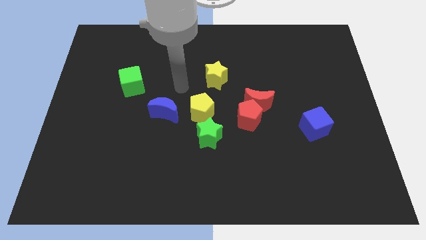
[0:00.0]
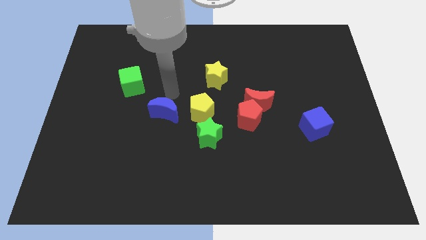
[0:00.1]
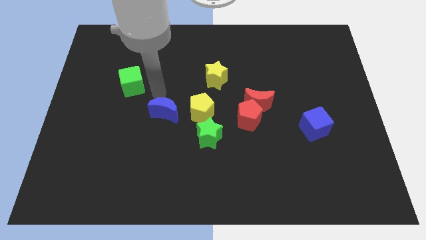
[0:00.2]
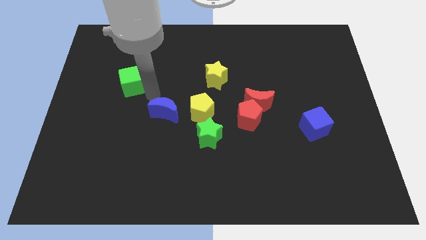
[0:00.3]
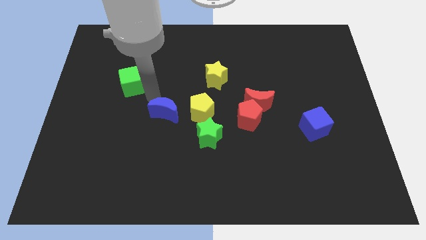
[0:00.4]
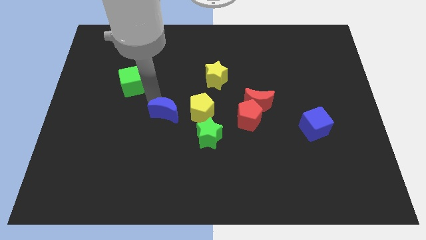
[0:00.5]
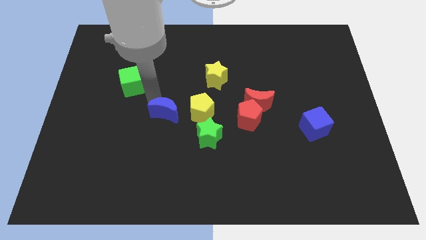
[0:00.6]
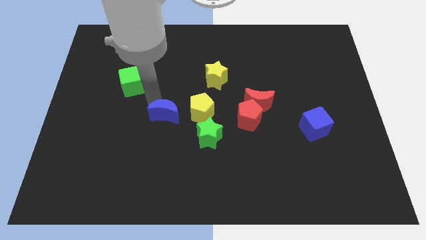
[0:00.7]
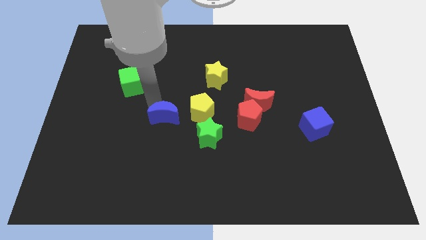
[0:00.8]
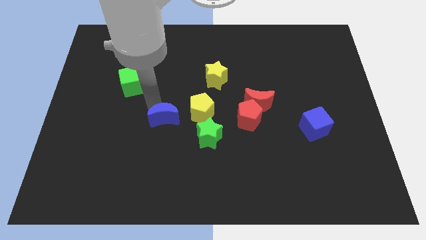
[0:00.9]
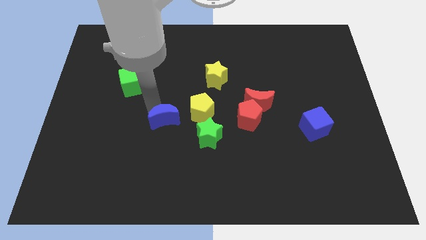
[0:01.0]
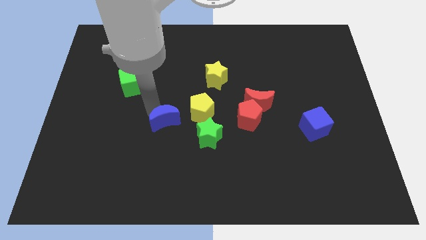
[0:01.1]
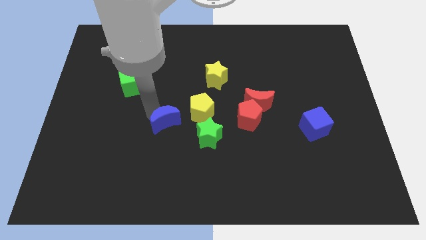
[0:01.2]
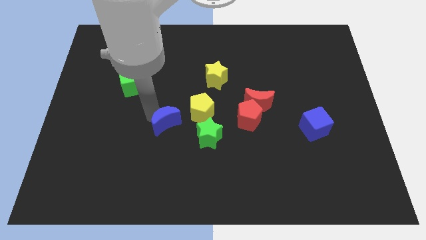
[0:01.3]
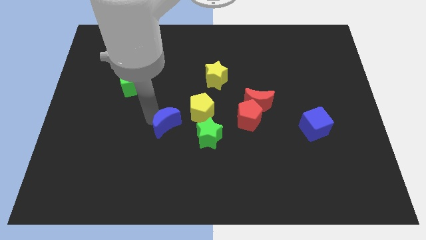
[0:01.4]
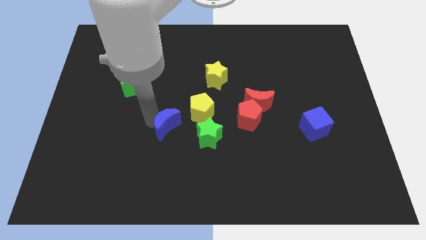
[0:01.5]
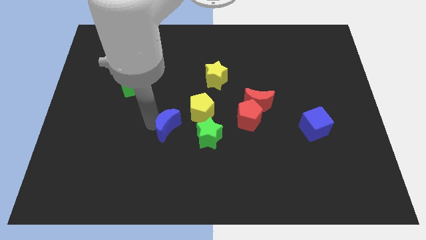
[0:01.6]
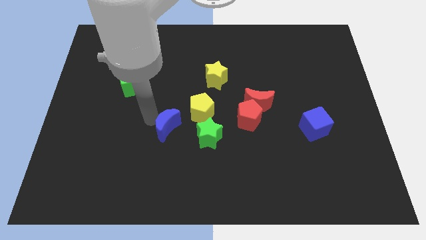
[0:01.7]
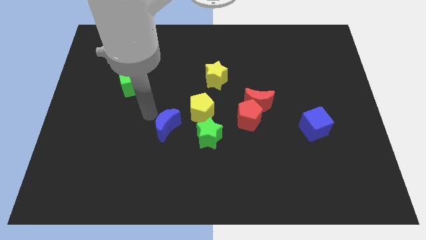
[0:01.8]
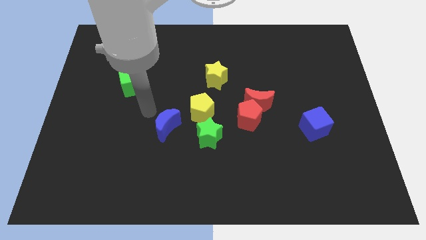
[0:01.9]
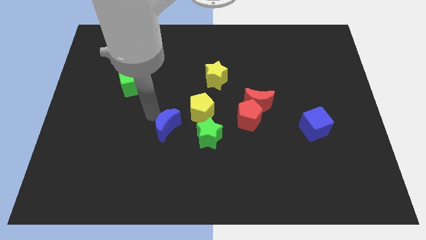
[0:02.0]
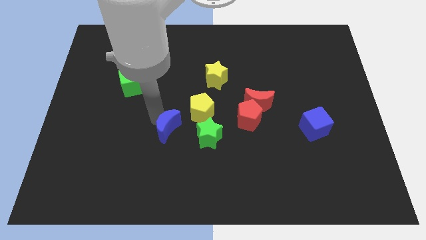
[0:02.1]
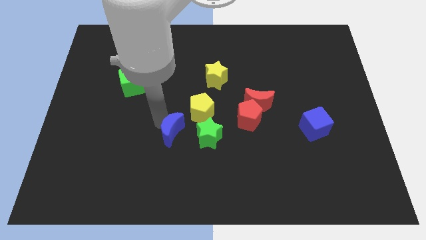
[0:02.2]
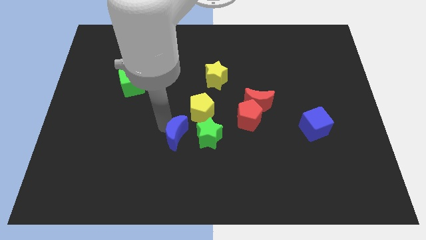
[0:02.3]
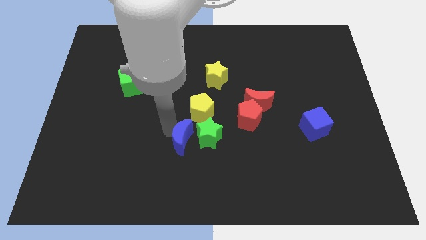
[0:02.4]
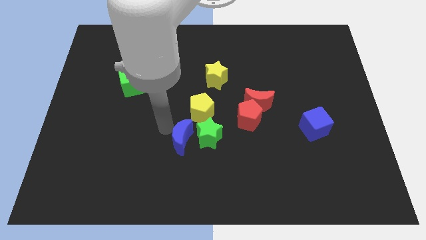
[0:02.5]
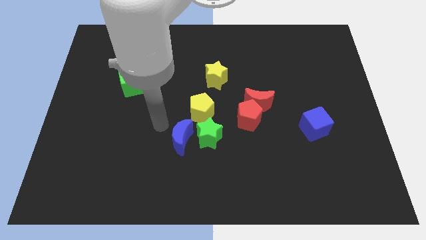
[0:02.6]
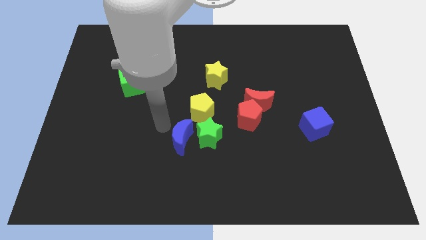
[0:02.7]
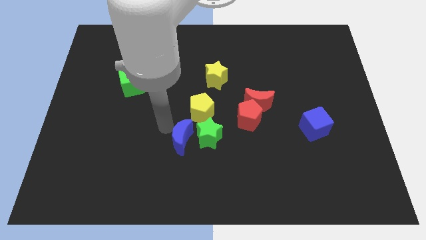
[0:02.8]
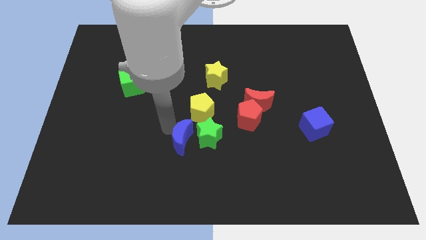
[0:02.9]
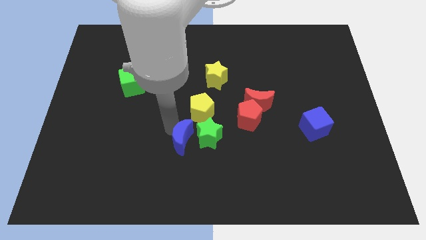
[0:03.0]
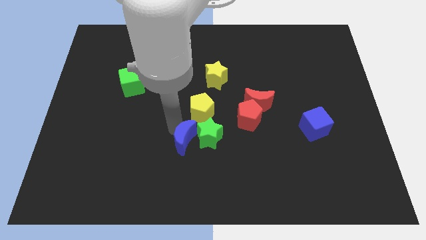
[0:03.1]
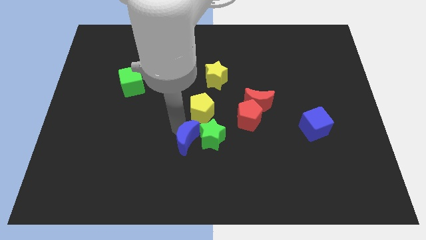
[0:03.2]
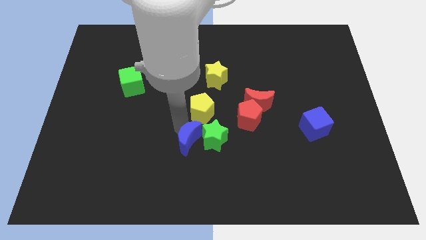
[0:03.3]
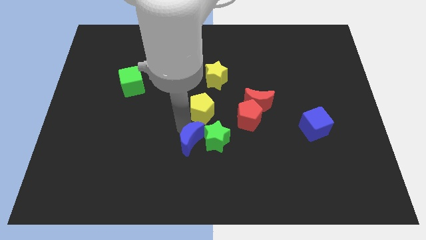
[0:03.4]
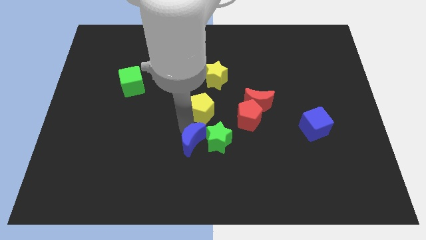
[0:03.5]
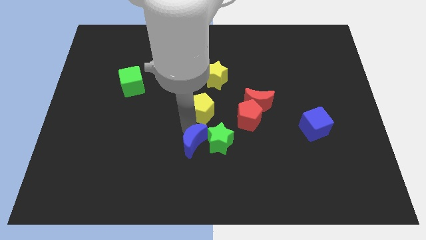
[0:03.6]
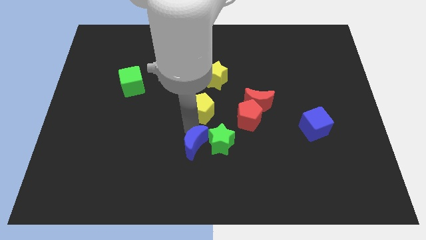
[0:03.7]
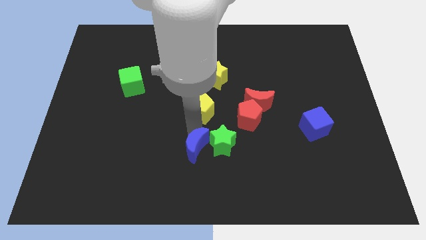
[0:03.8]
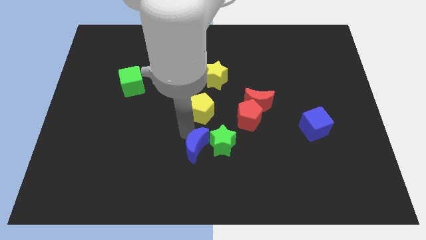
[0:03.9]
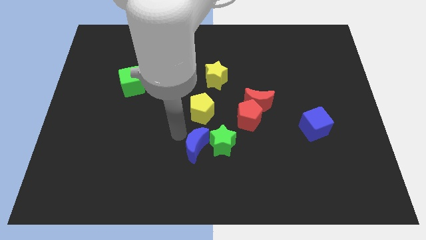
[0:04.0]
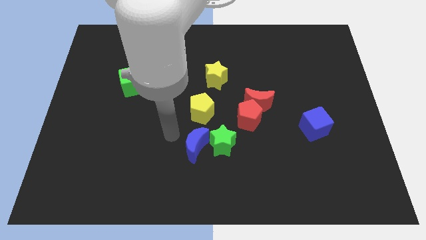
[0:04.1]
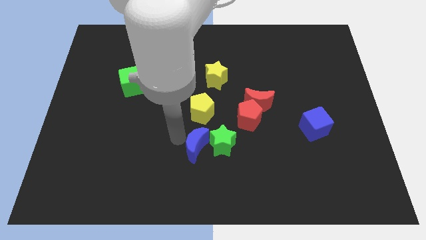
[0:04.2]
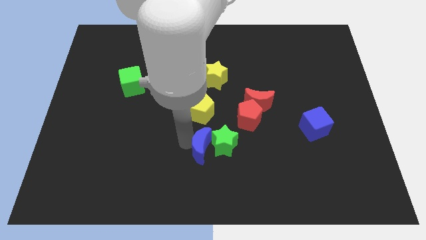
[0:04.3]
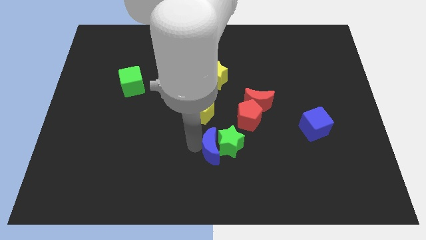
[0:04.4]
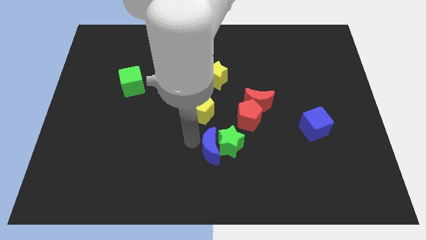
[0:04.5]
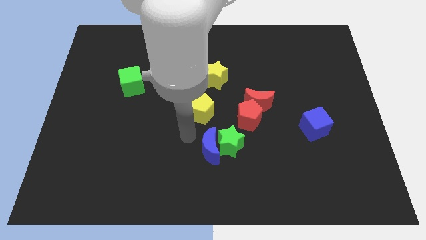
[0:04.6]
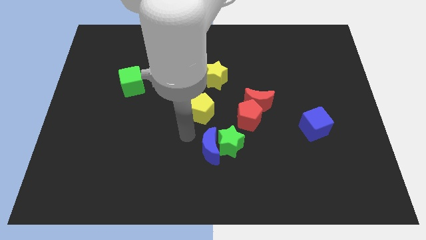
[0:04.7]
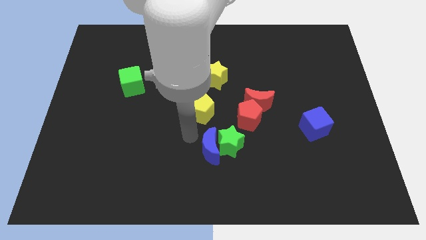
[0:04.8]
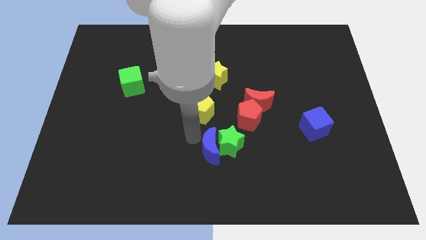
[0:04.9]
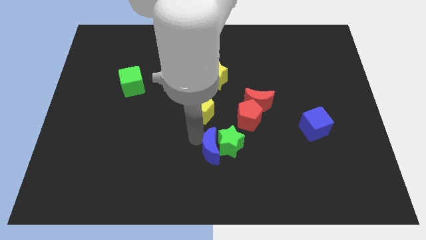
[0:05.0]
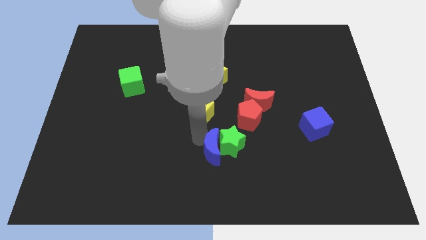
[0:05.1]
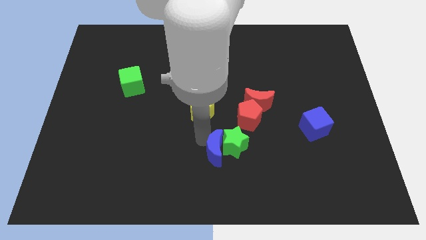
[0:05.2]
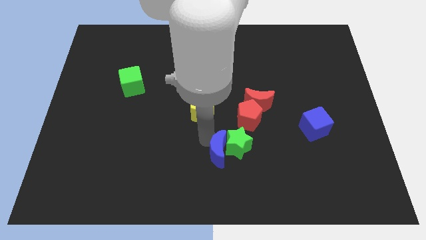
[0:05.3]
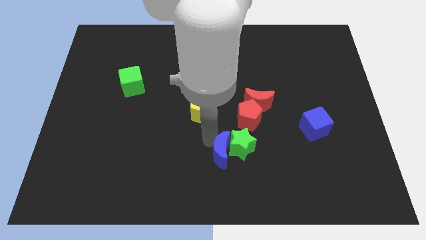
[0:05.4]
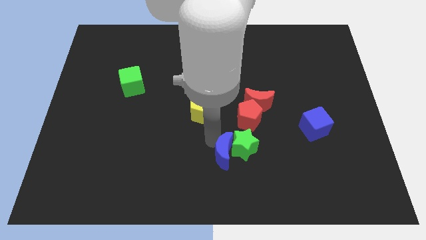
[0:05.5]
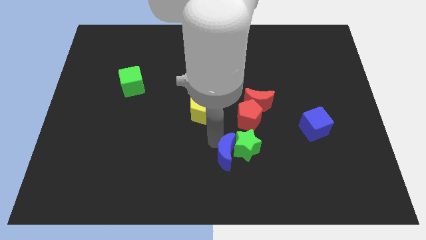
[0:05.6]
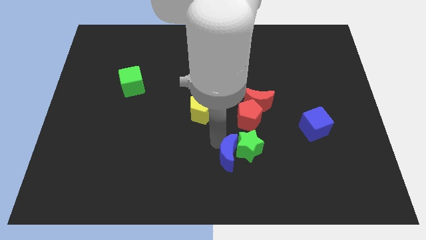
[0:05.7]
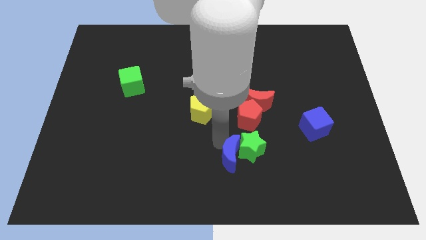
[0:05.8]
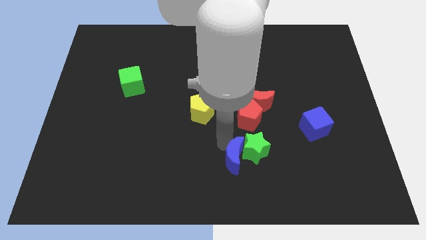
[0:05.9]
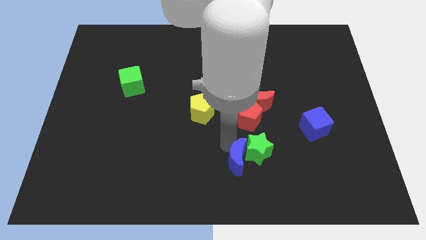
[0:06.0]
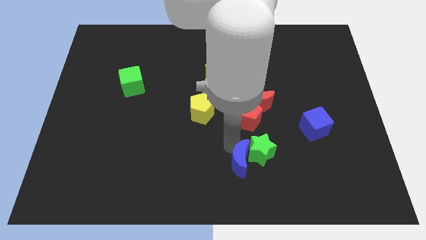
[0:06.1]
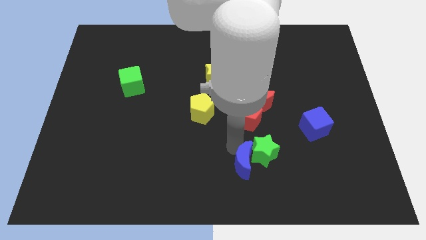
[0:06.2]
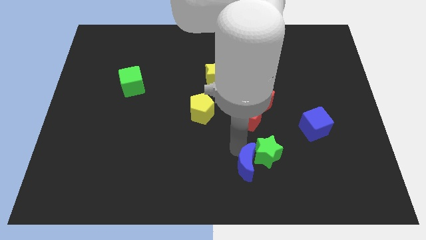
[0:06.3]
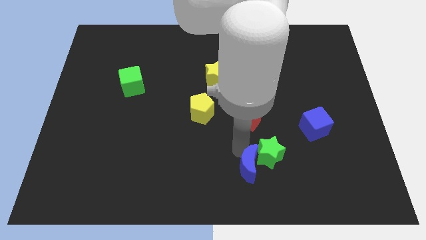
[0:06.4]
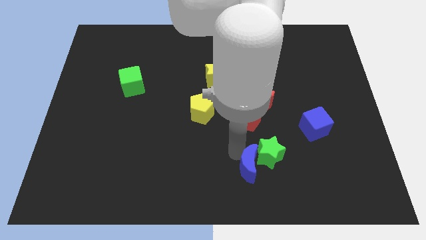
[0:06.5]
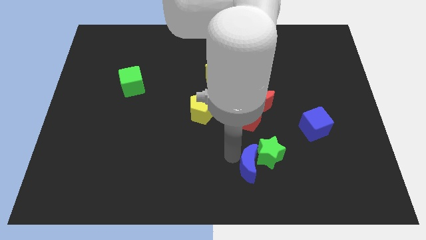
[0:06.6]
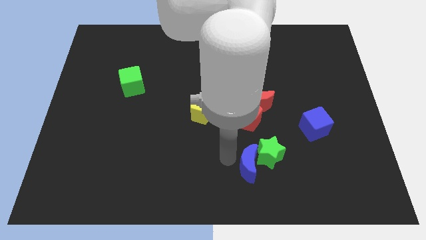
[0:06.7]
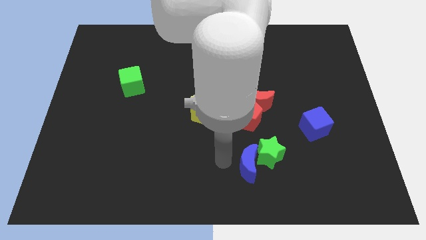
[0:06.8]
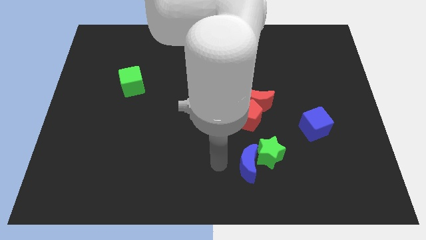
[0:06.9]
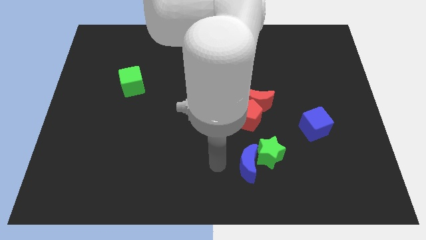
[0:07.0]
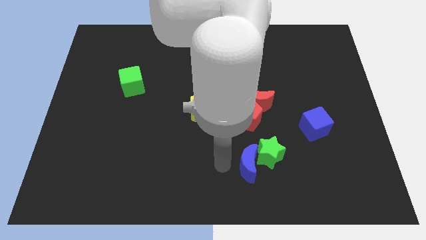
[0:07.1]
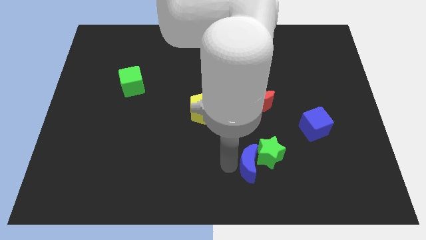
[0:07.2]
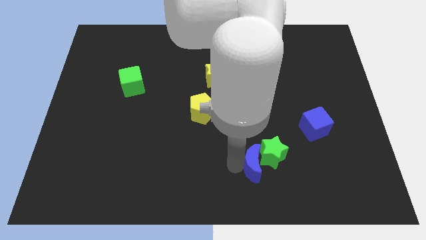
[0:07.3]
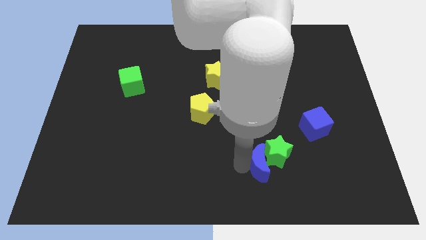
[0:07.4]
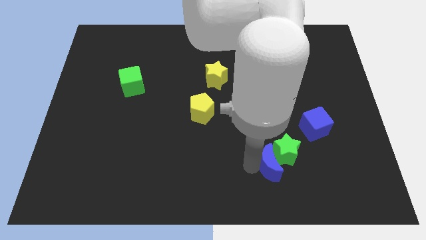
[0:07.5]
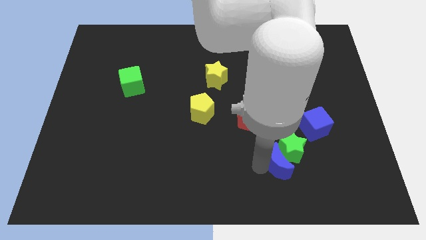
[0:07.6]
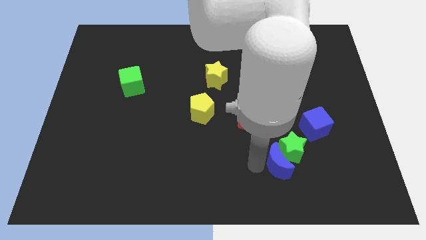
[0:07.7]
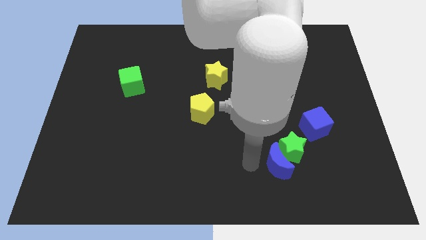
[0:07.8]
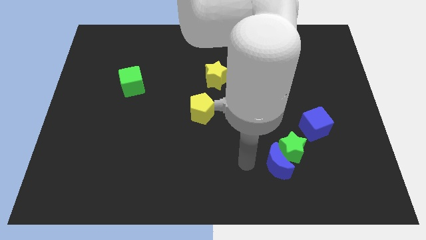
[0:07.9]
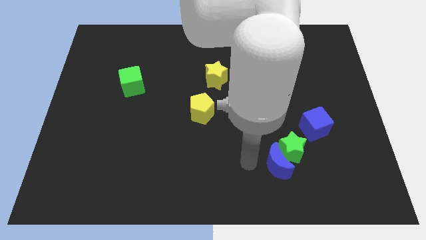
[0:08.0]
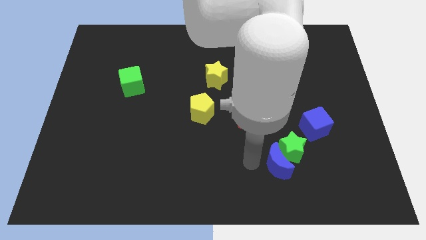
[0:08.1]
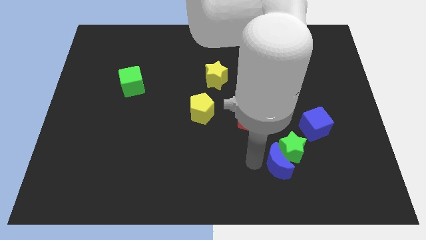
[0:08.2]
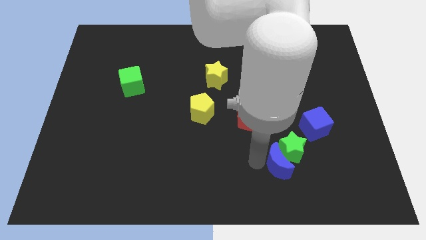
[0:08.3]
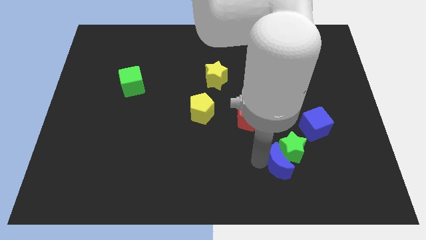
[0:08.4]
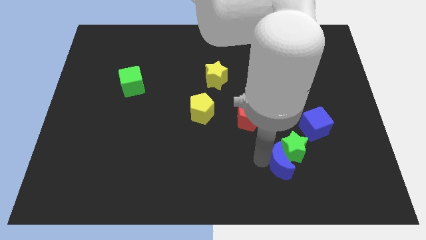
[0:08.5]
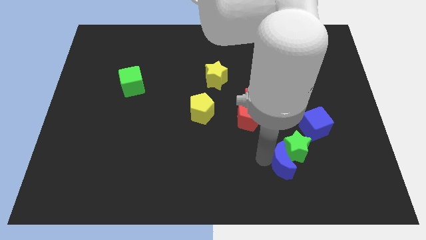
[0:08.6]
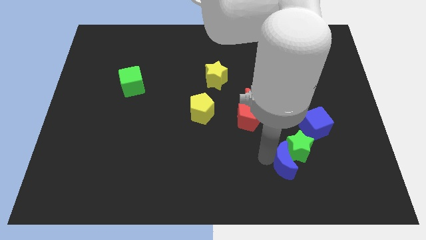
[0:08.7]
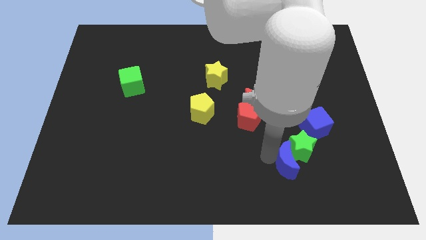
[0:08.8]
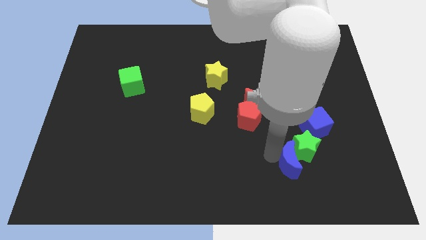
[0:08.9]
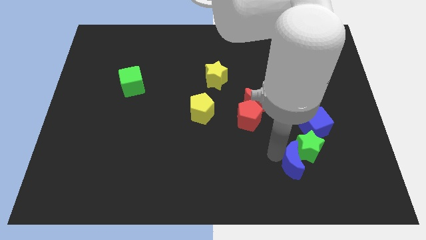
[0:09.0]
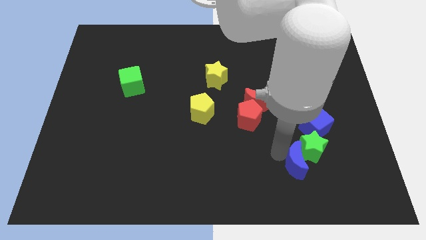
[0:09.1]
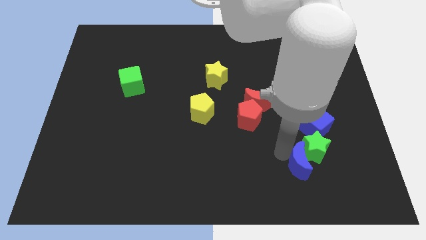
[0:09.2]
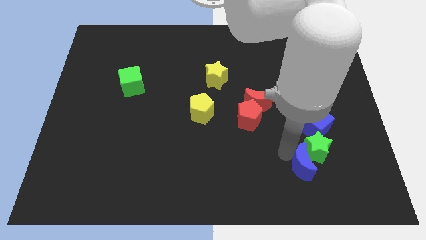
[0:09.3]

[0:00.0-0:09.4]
move the blue moon to the bottom of the blue cube
